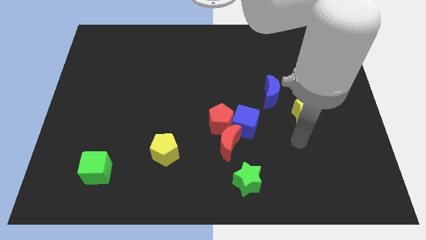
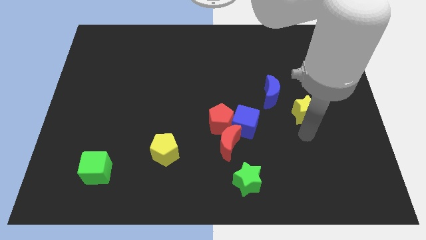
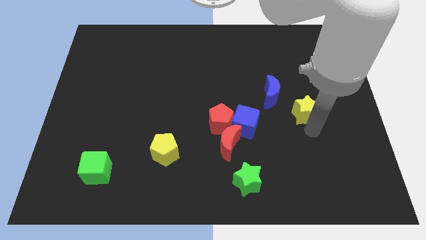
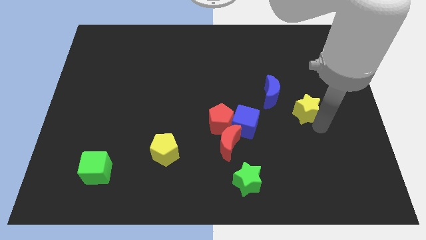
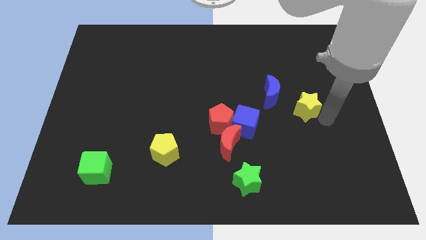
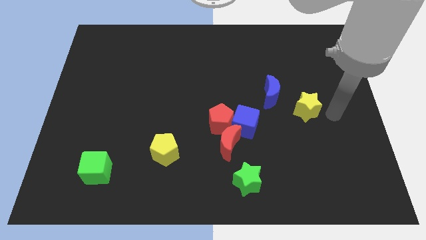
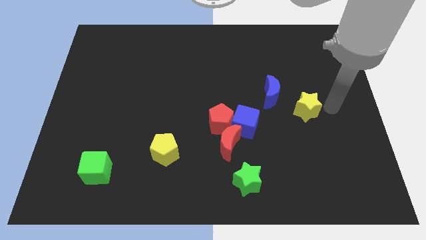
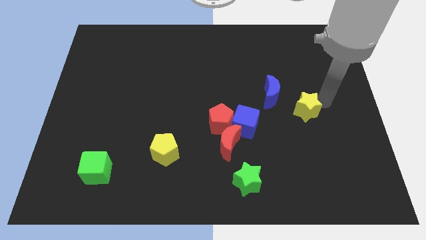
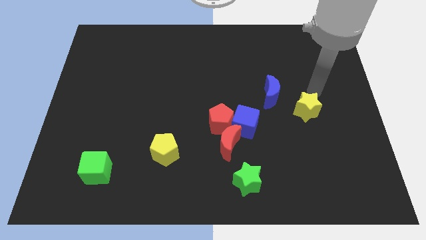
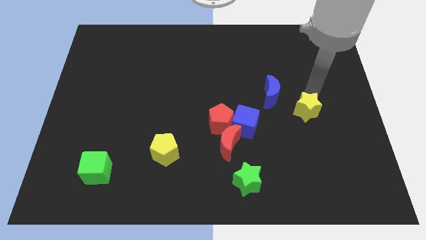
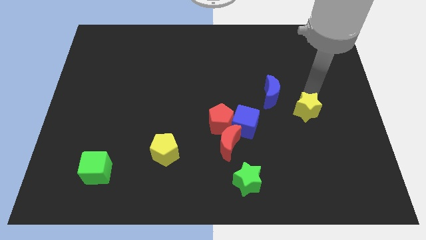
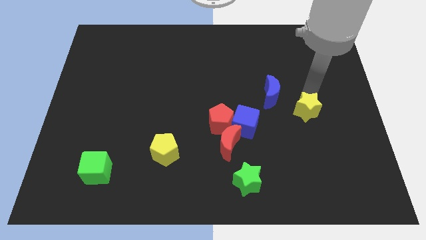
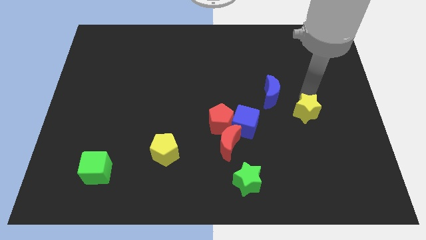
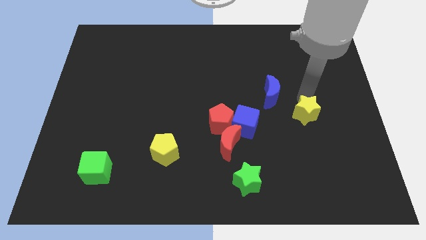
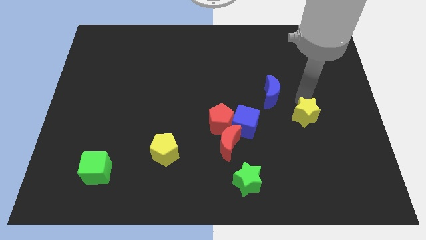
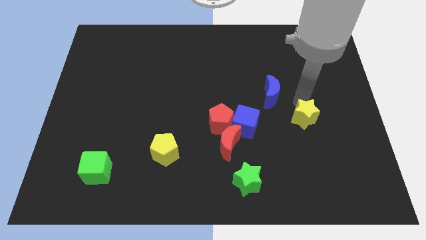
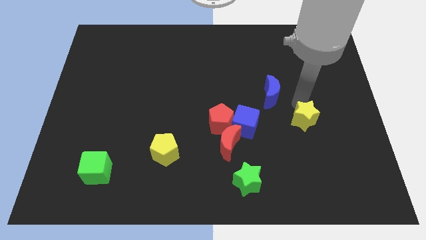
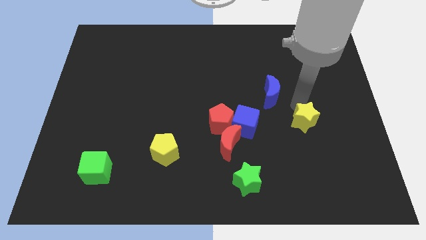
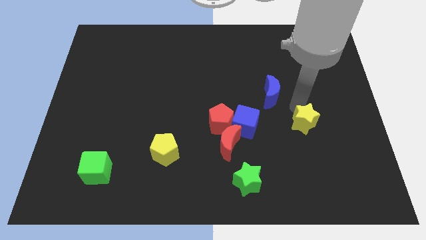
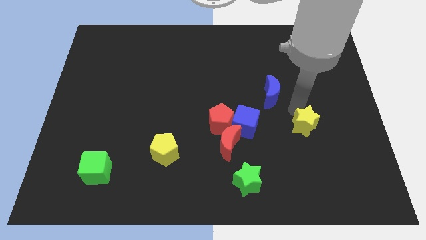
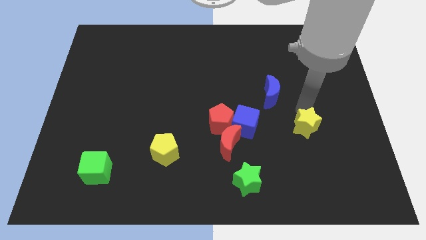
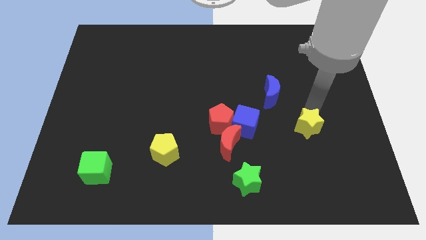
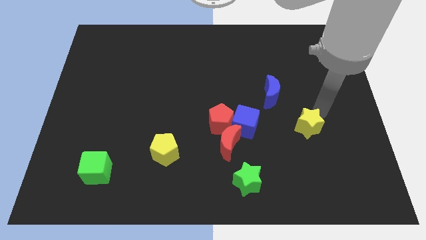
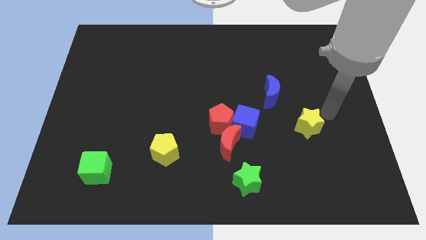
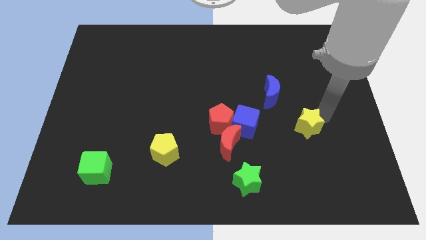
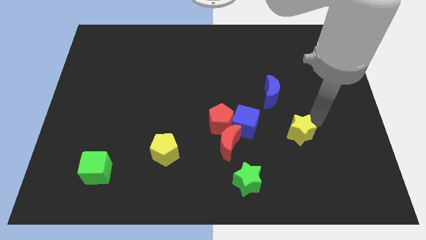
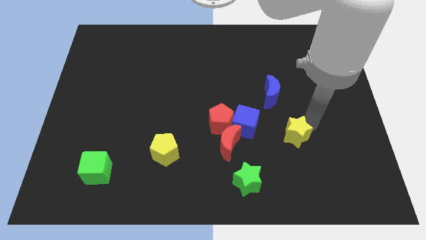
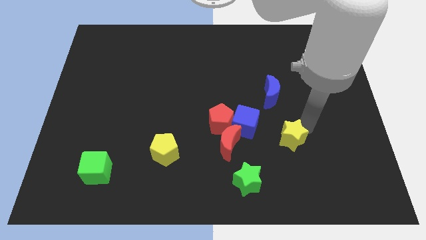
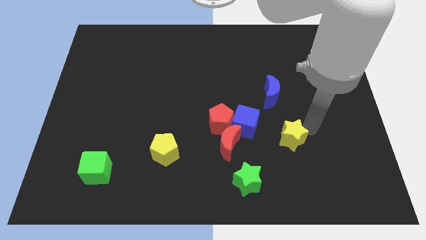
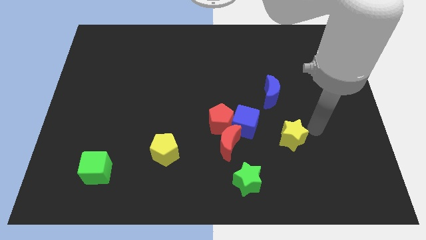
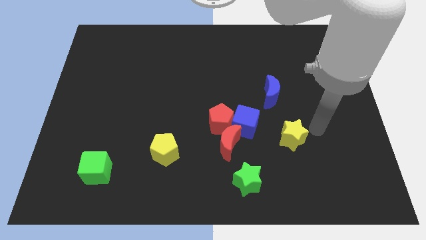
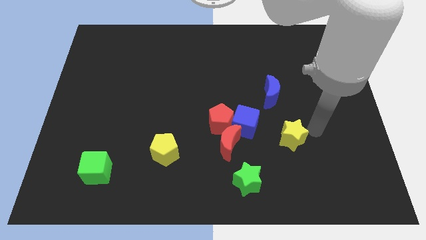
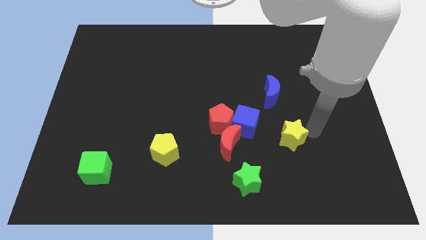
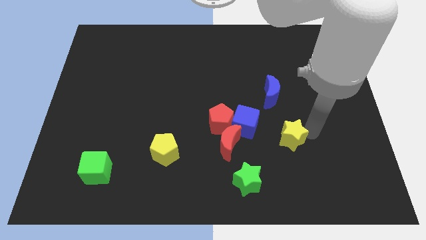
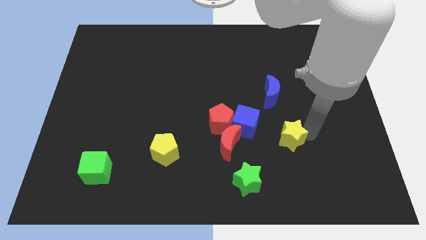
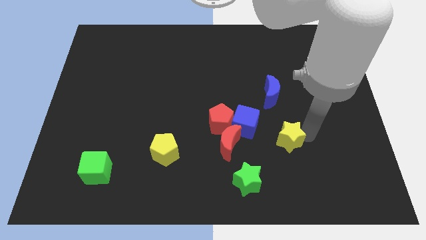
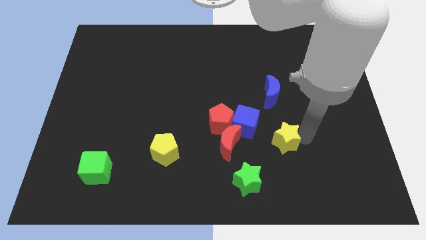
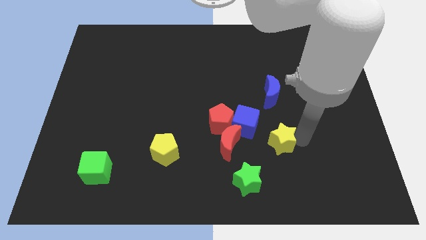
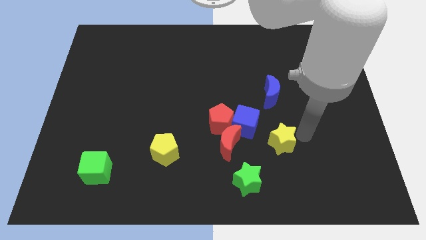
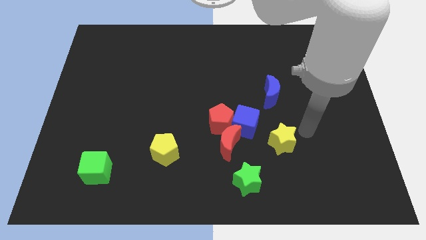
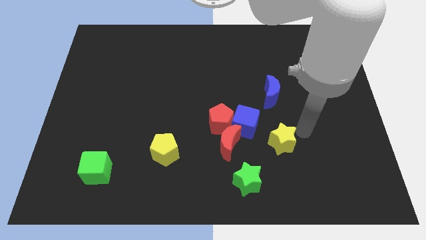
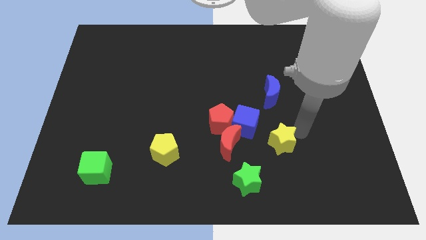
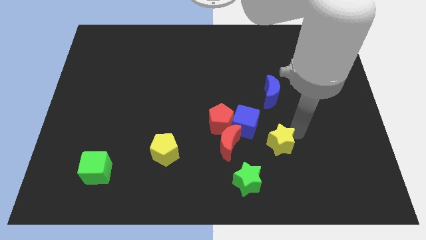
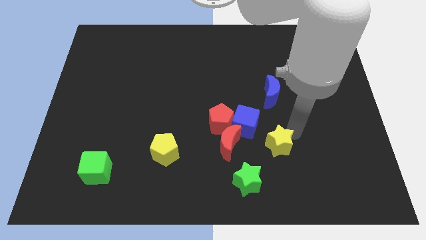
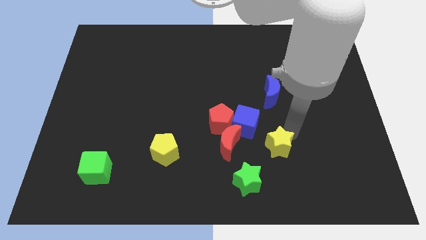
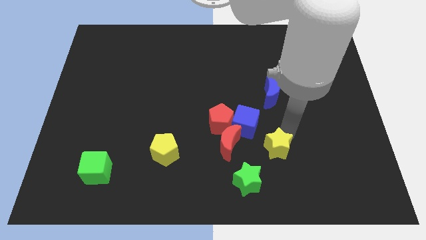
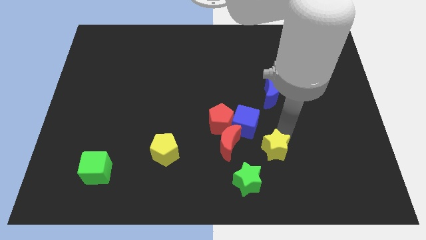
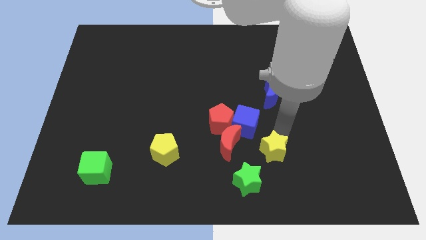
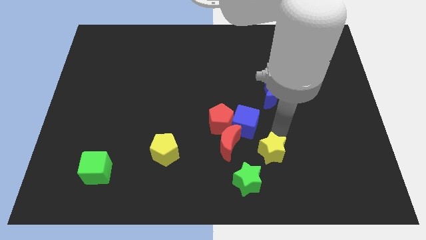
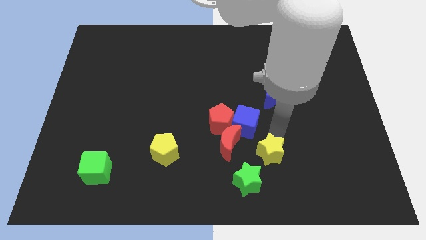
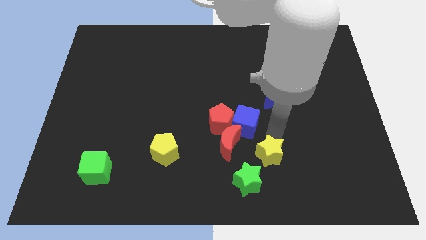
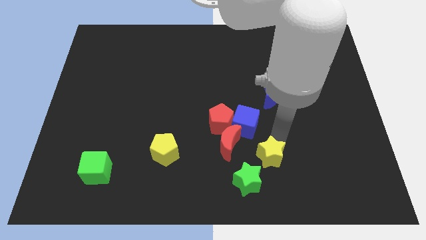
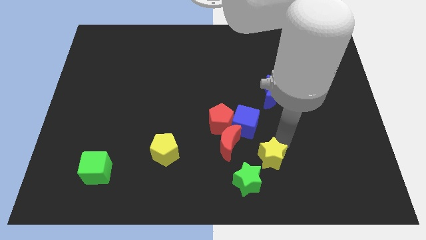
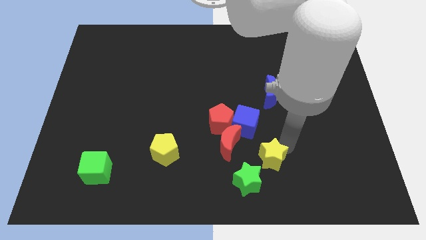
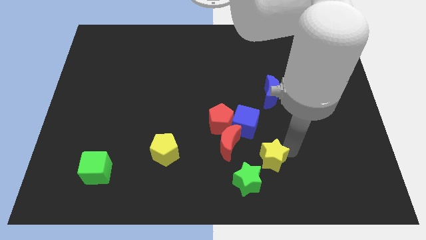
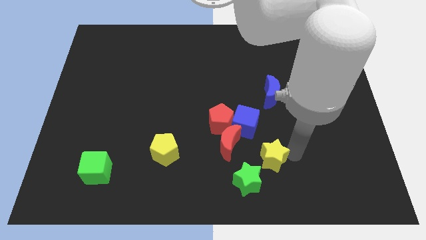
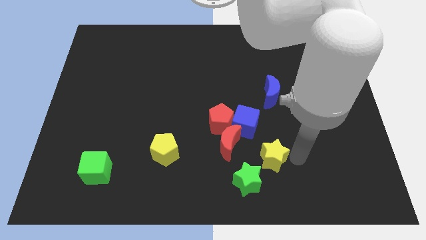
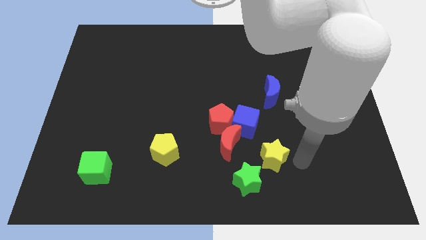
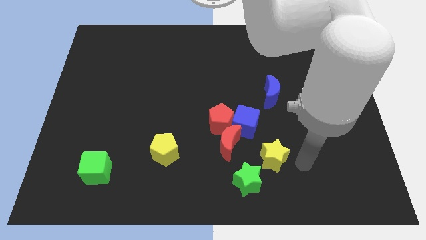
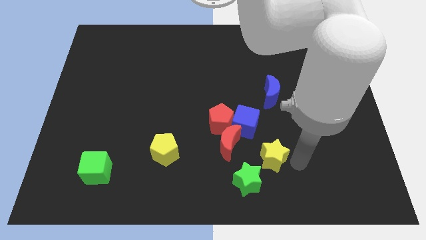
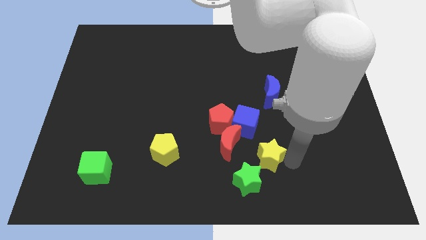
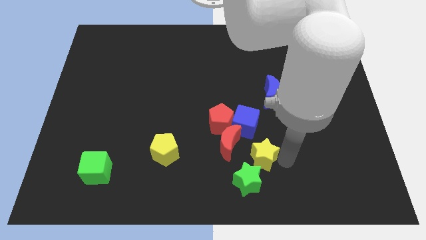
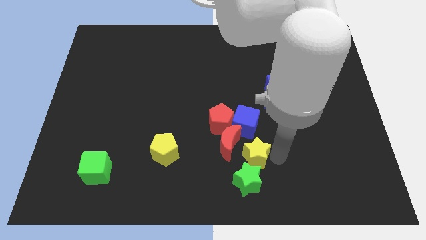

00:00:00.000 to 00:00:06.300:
put the yellow star next to the green star

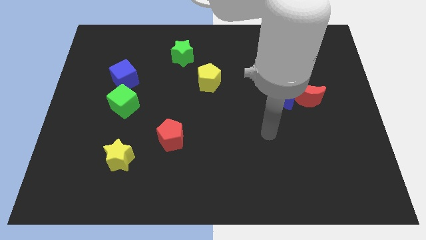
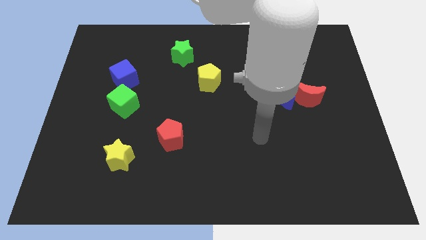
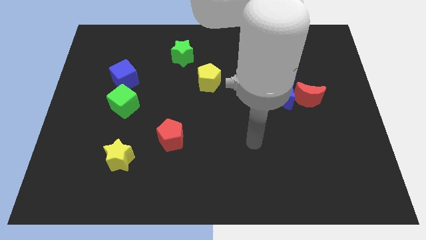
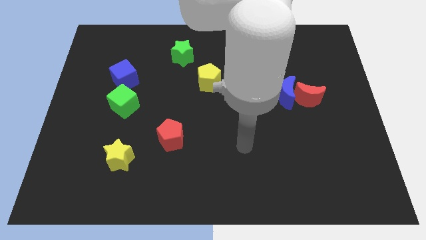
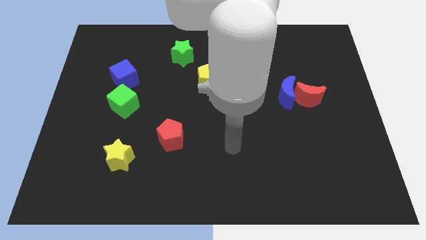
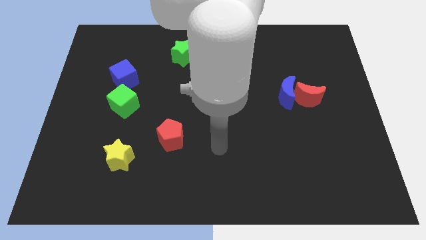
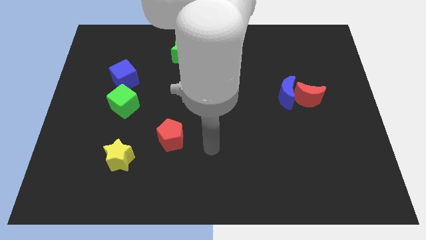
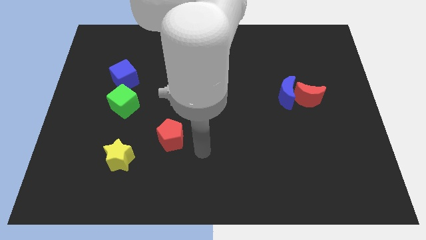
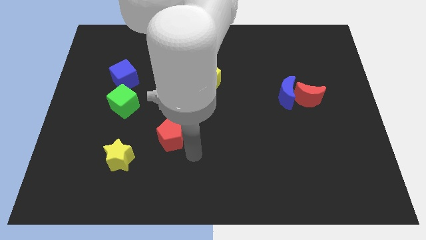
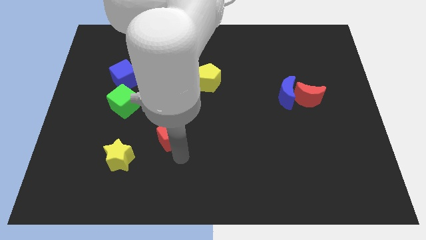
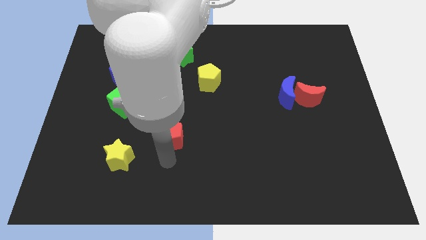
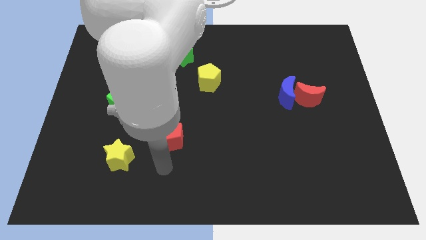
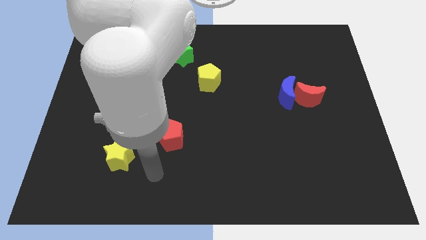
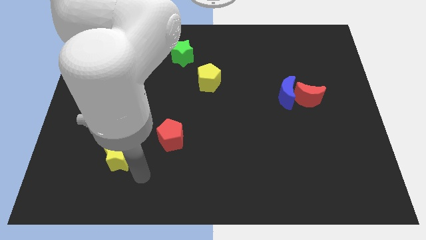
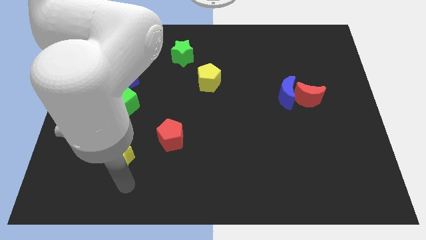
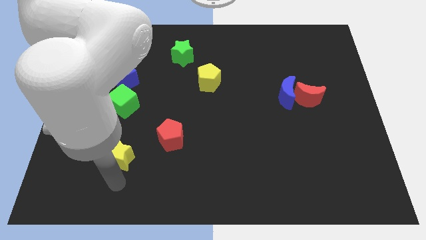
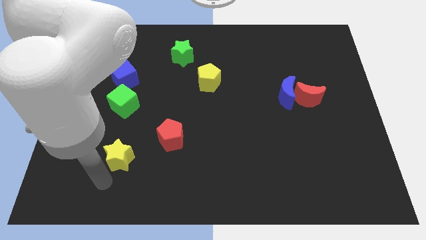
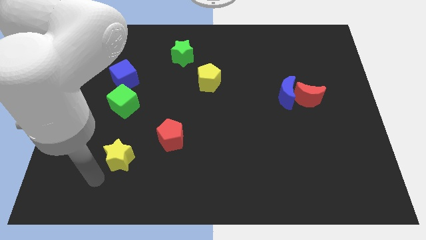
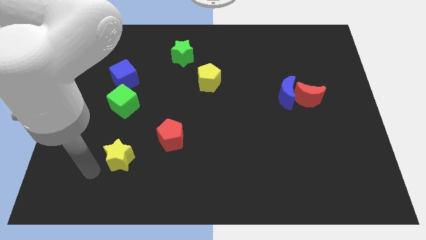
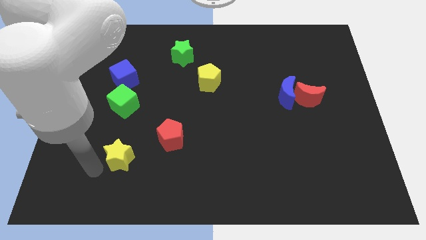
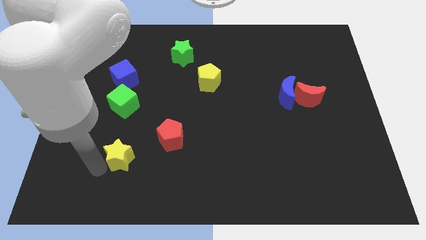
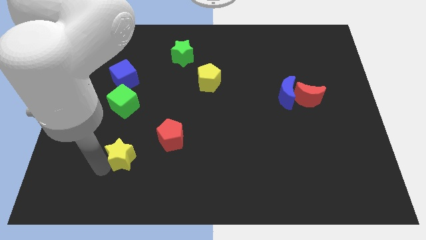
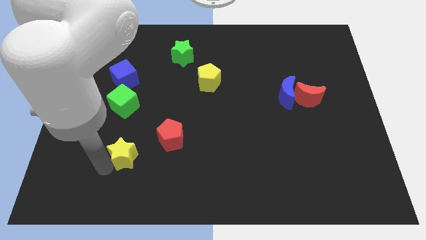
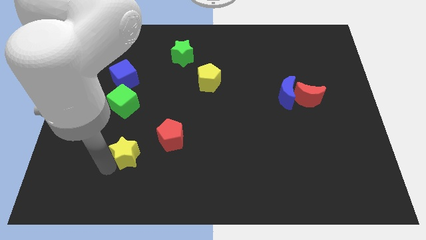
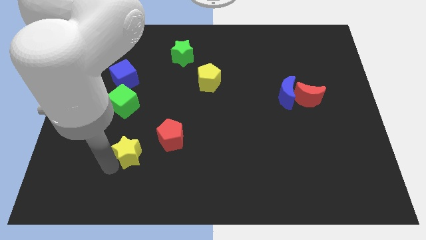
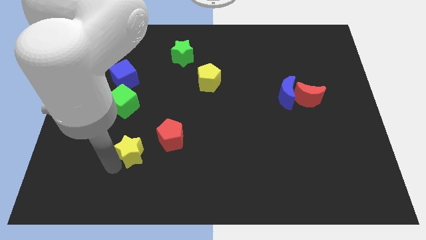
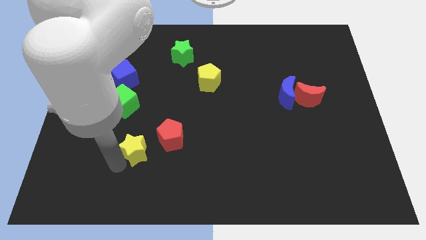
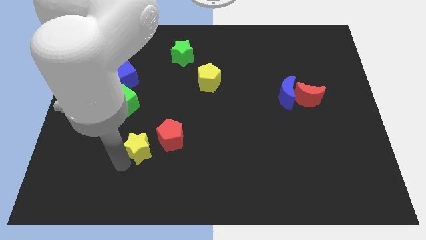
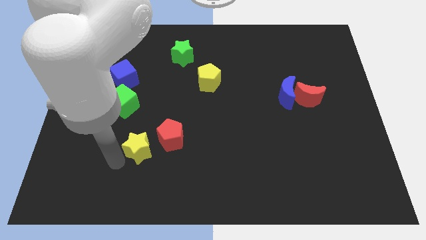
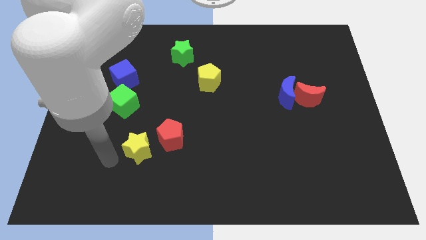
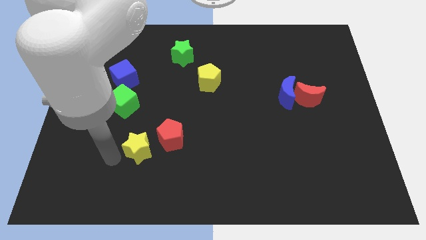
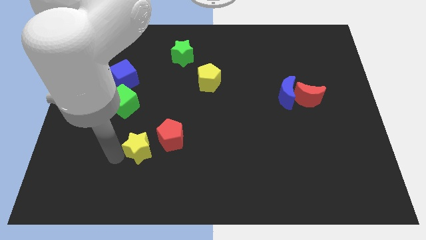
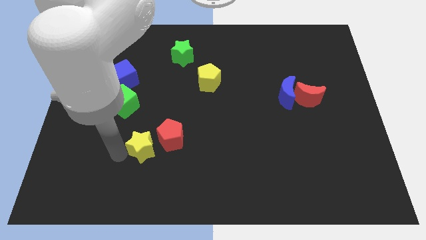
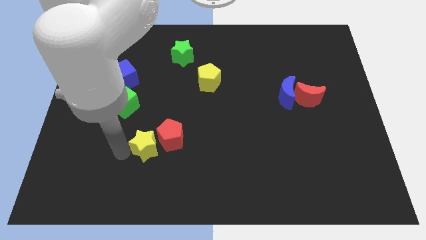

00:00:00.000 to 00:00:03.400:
put the yellow star to the red pentagon
